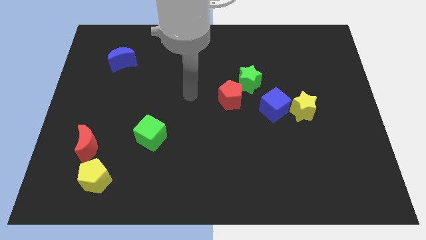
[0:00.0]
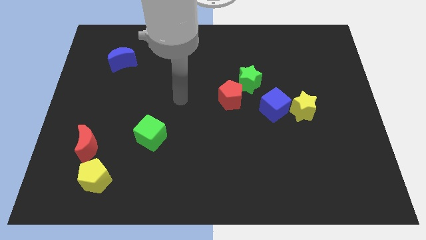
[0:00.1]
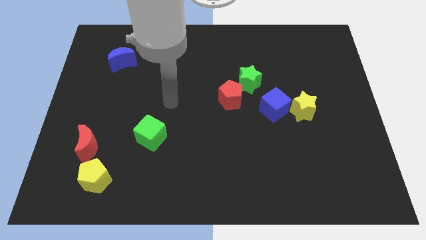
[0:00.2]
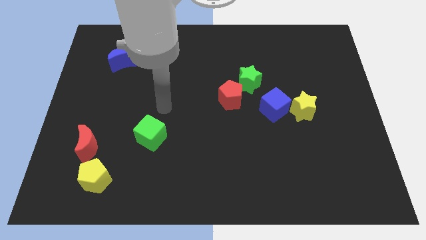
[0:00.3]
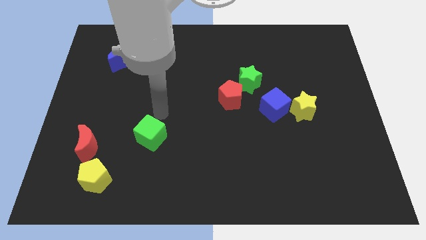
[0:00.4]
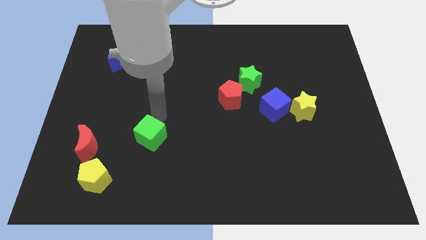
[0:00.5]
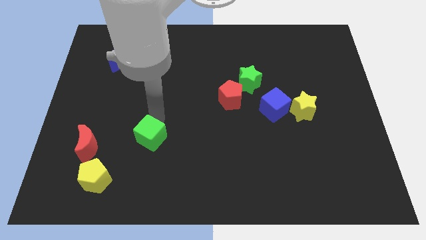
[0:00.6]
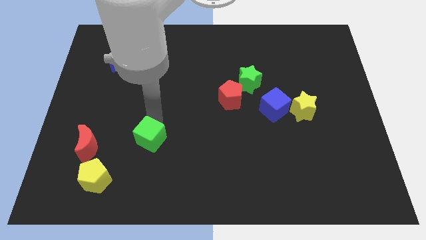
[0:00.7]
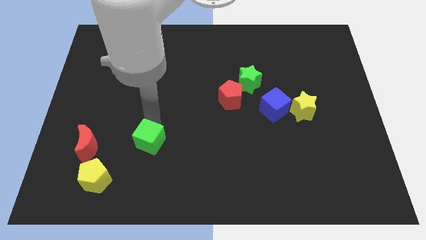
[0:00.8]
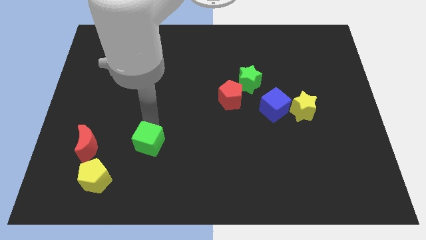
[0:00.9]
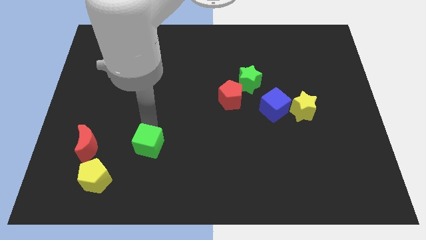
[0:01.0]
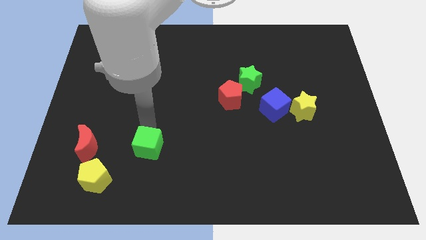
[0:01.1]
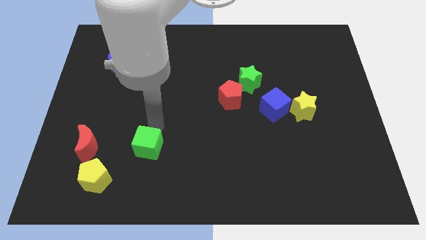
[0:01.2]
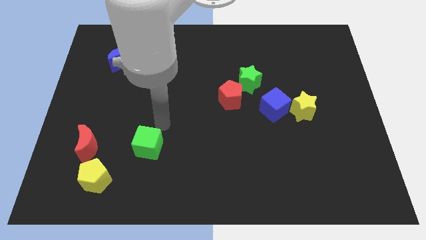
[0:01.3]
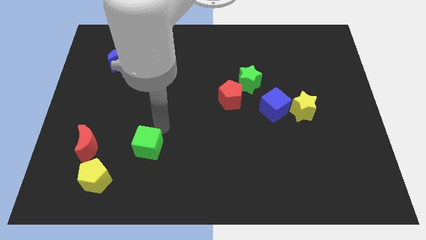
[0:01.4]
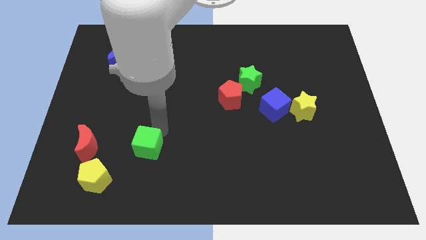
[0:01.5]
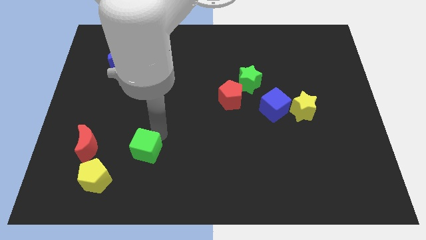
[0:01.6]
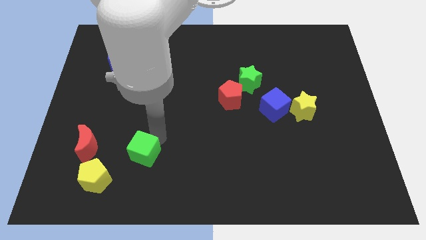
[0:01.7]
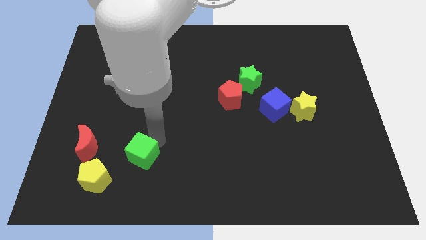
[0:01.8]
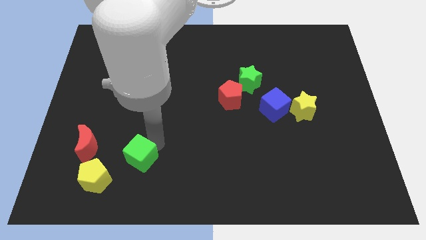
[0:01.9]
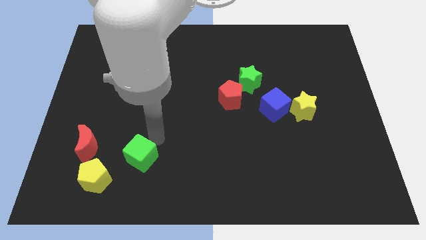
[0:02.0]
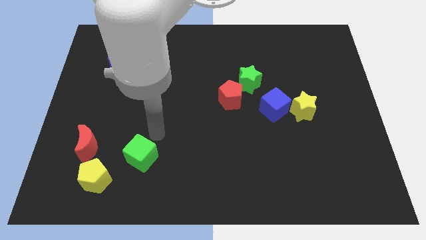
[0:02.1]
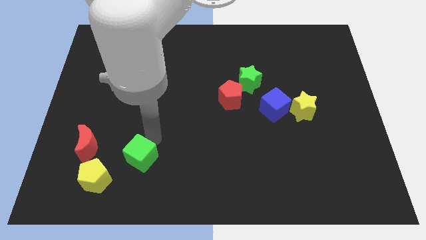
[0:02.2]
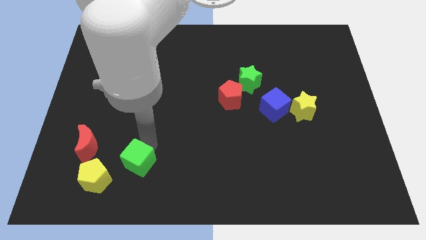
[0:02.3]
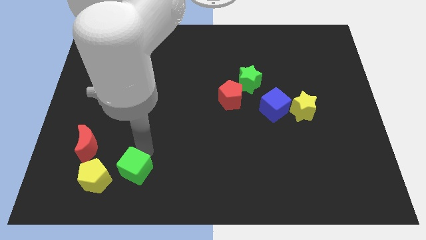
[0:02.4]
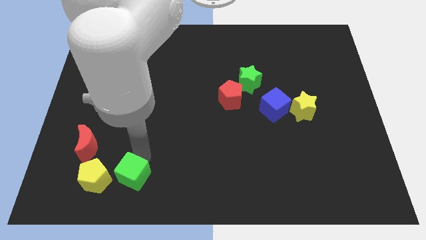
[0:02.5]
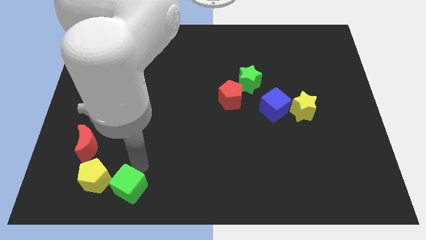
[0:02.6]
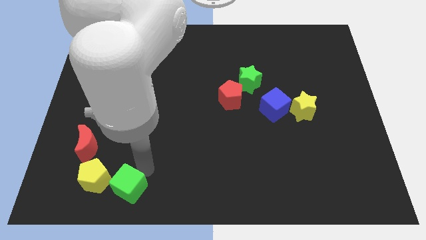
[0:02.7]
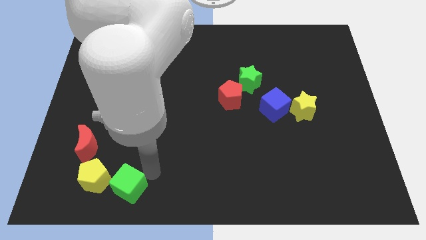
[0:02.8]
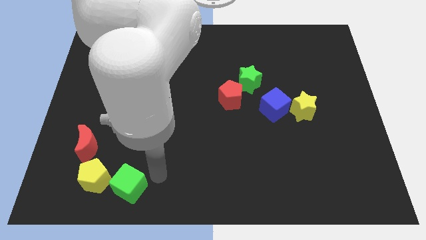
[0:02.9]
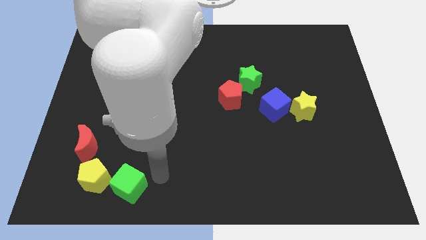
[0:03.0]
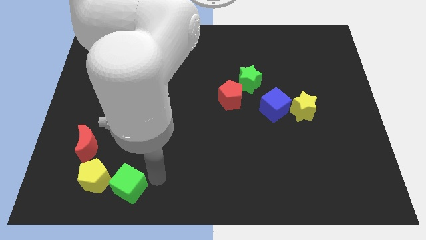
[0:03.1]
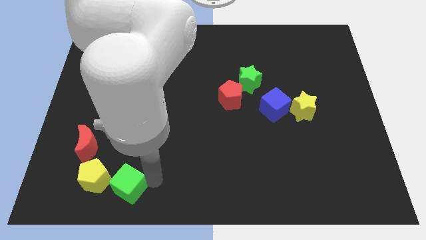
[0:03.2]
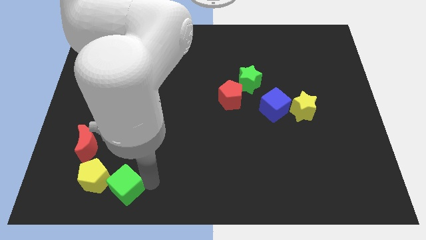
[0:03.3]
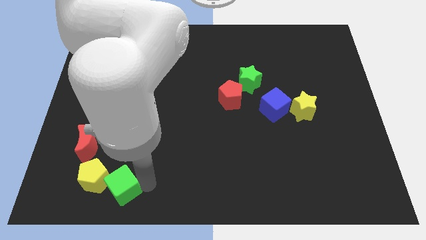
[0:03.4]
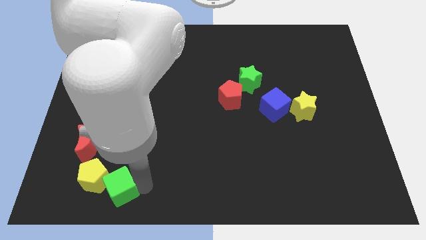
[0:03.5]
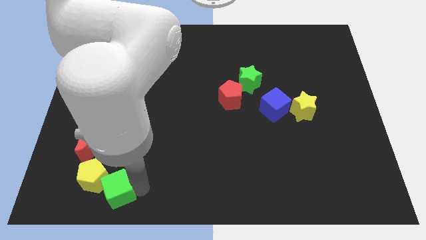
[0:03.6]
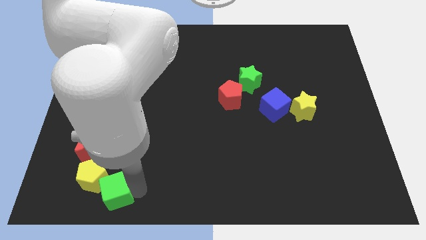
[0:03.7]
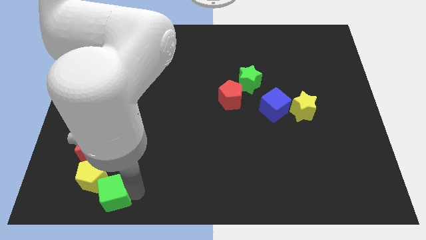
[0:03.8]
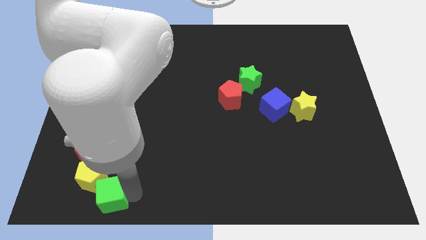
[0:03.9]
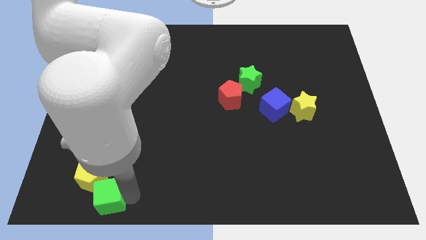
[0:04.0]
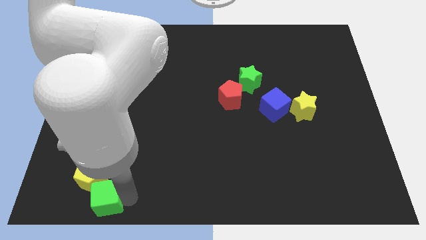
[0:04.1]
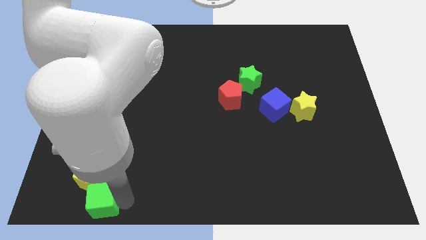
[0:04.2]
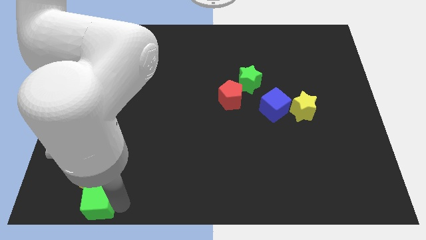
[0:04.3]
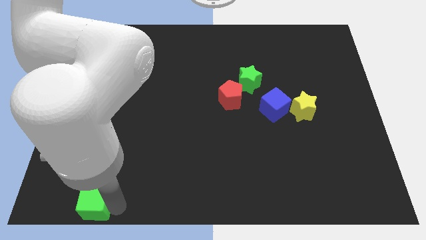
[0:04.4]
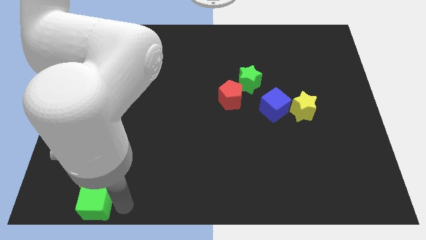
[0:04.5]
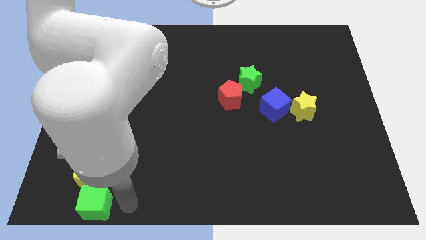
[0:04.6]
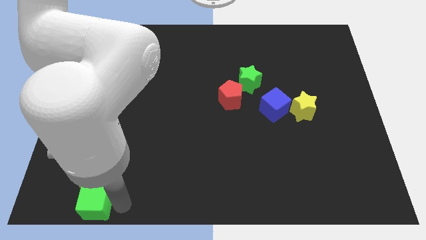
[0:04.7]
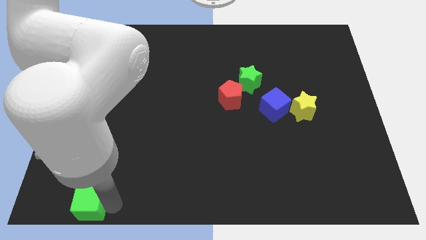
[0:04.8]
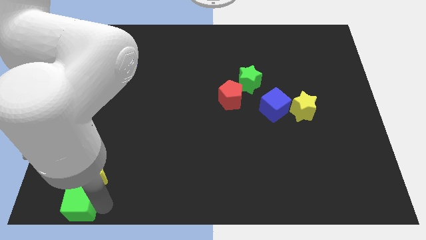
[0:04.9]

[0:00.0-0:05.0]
slide the green cube to the bottom left

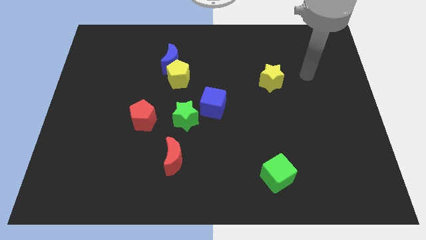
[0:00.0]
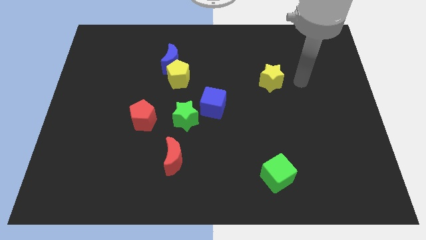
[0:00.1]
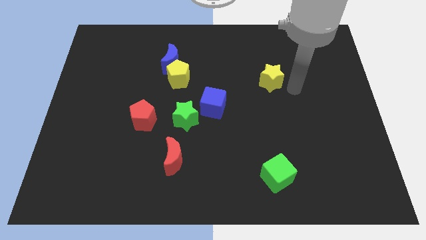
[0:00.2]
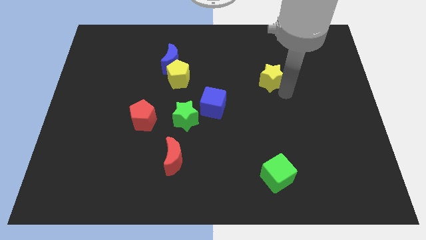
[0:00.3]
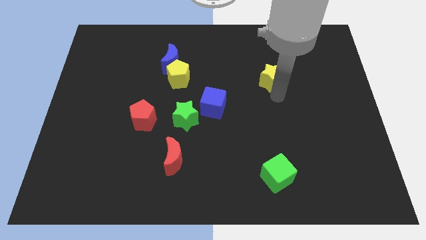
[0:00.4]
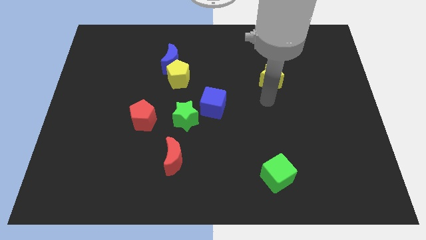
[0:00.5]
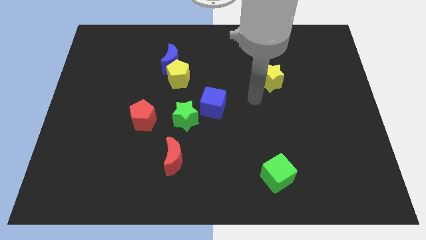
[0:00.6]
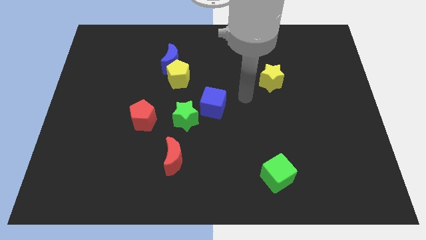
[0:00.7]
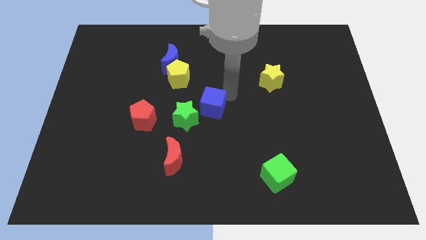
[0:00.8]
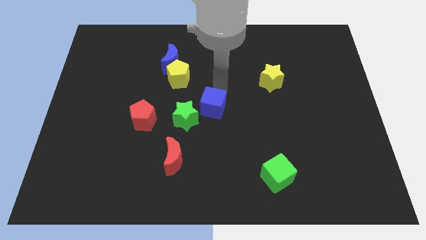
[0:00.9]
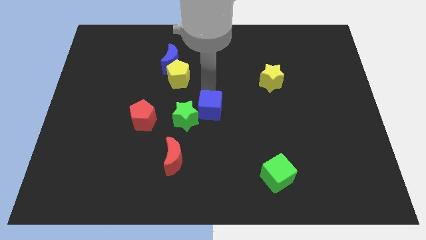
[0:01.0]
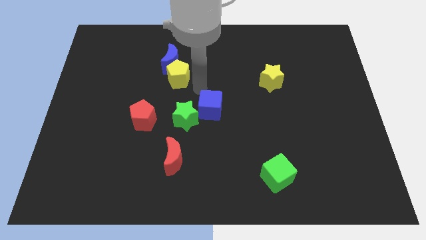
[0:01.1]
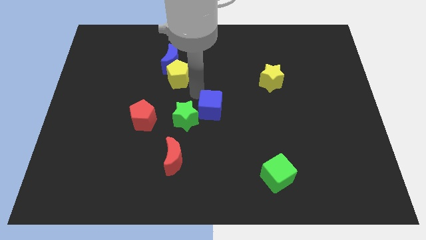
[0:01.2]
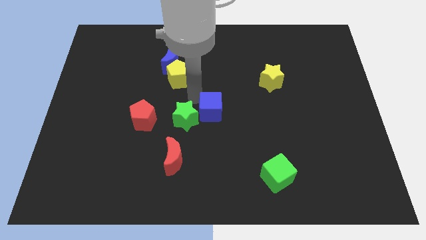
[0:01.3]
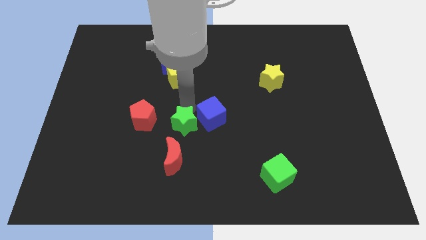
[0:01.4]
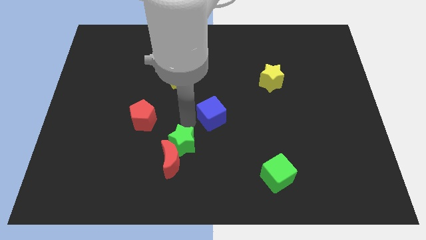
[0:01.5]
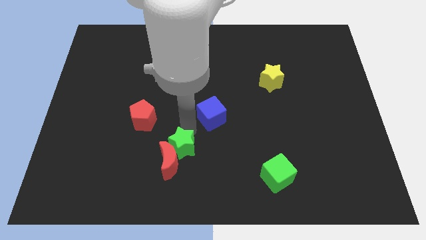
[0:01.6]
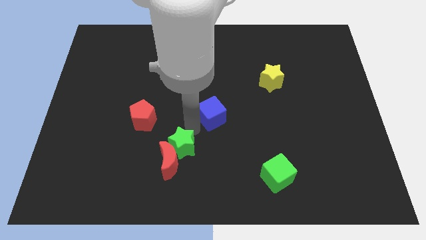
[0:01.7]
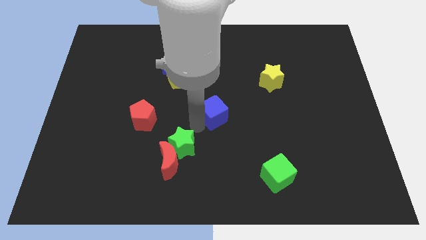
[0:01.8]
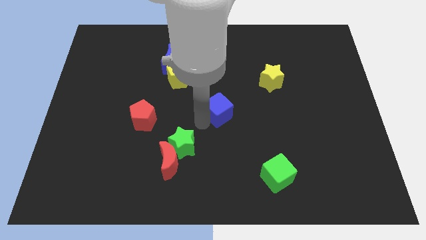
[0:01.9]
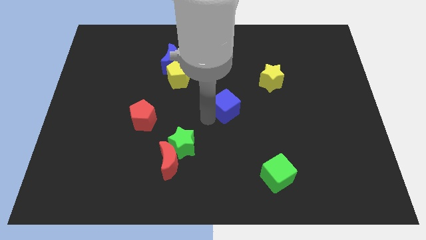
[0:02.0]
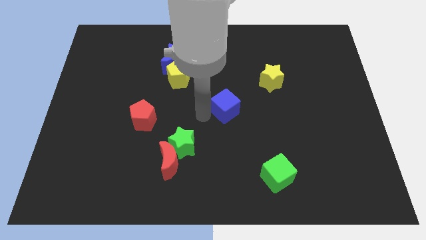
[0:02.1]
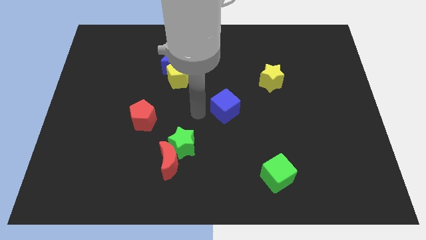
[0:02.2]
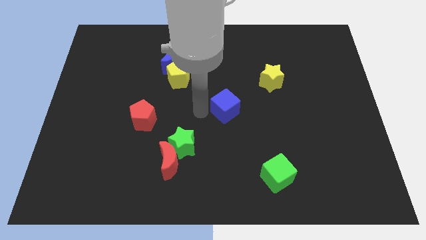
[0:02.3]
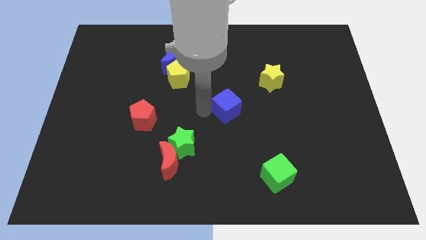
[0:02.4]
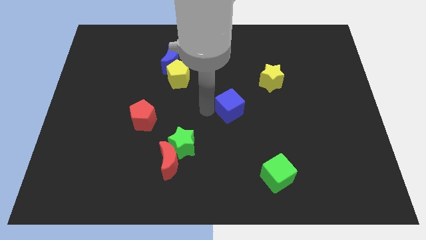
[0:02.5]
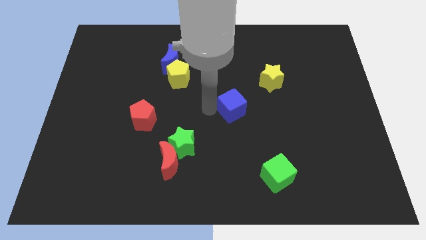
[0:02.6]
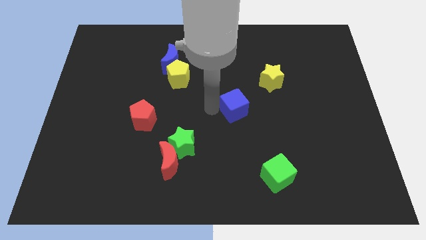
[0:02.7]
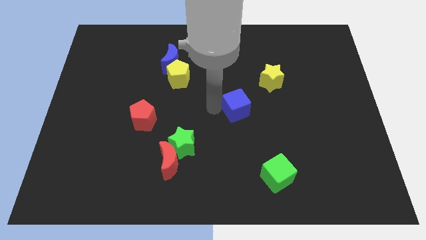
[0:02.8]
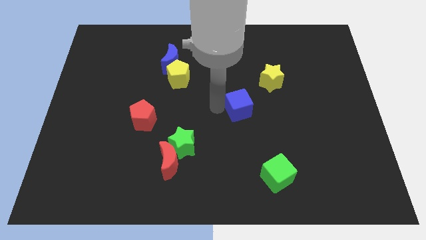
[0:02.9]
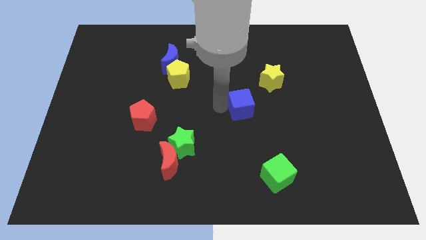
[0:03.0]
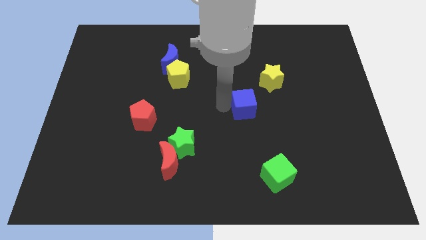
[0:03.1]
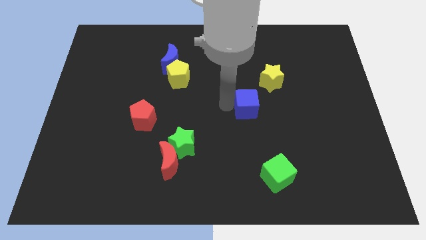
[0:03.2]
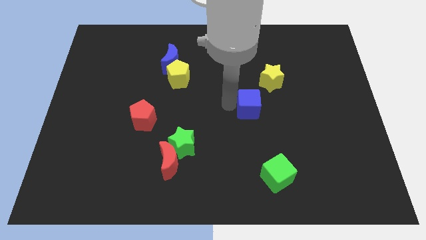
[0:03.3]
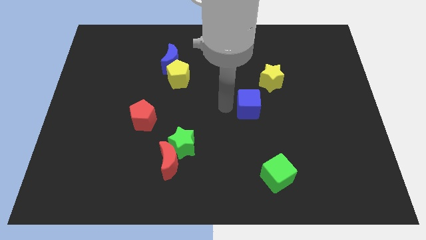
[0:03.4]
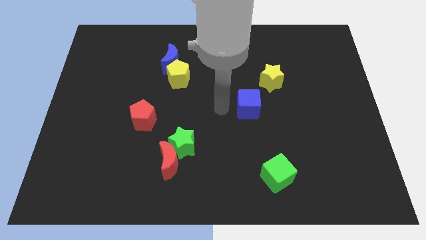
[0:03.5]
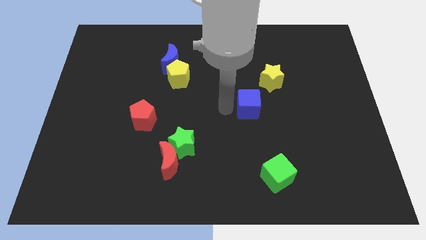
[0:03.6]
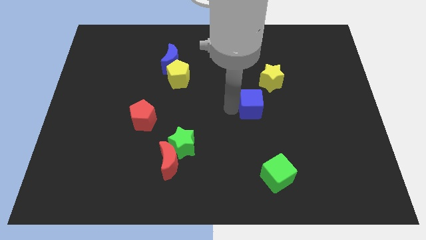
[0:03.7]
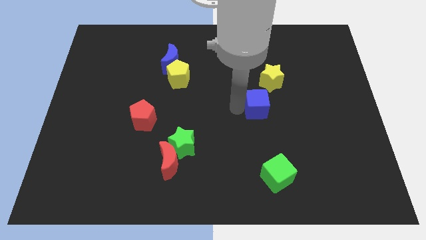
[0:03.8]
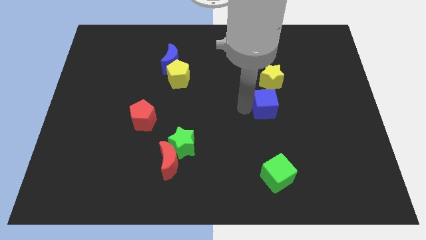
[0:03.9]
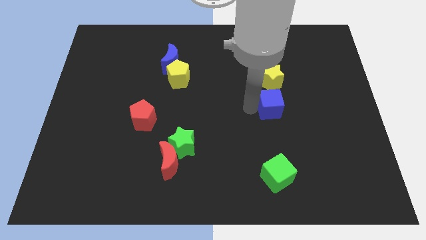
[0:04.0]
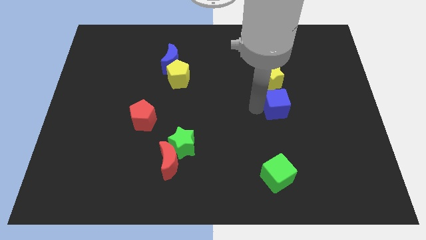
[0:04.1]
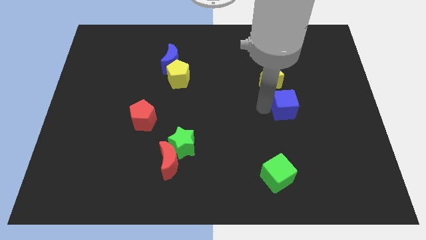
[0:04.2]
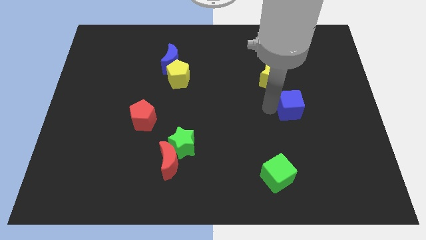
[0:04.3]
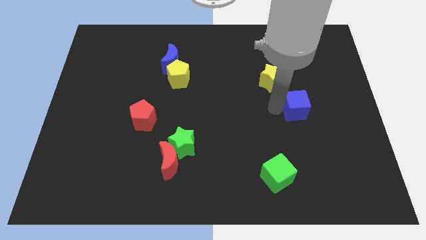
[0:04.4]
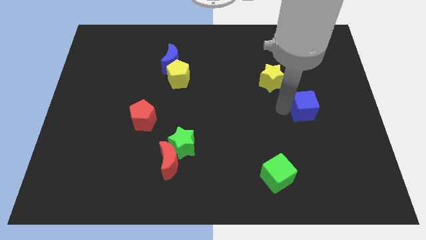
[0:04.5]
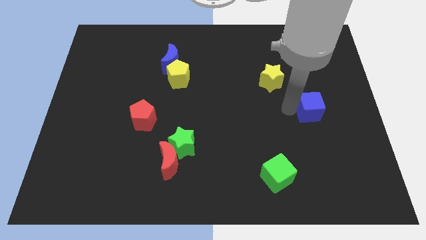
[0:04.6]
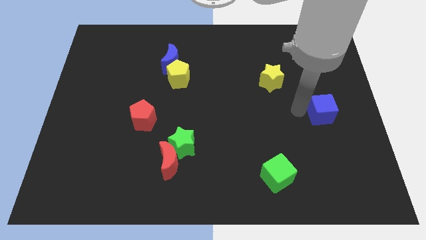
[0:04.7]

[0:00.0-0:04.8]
put the blue cube to the right side of the board
